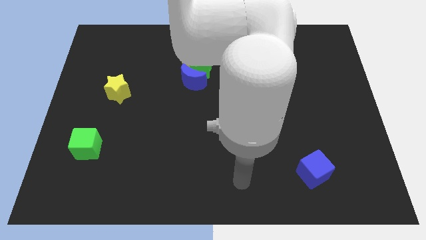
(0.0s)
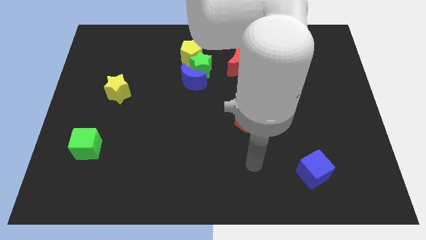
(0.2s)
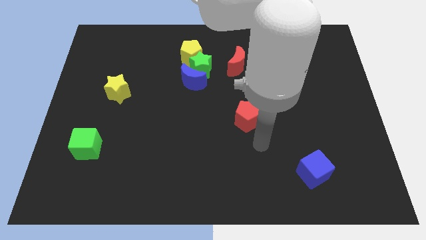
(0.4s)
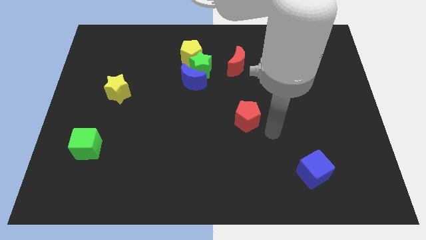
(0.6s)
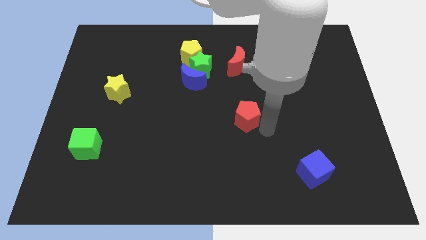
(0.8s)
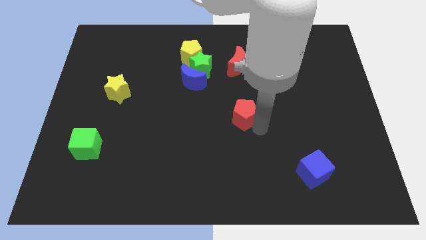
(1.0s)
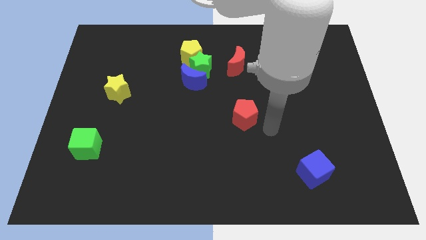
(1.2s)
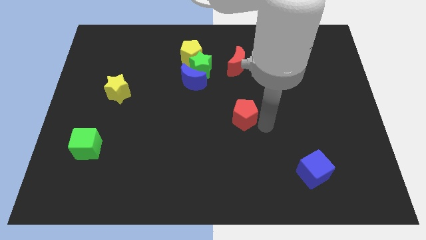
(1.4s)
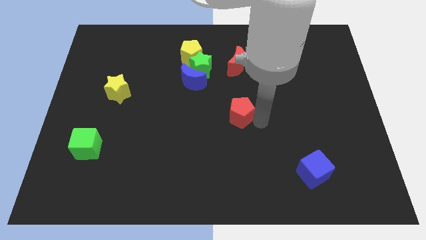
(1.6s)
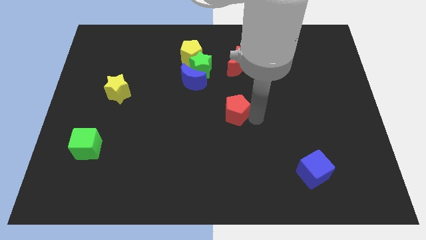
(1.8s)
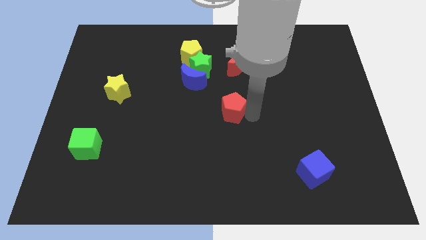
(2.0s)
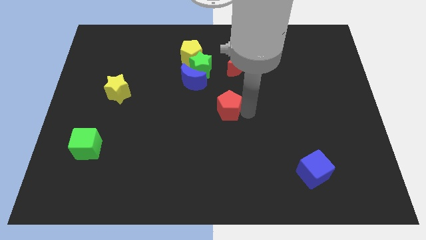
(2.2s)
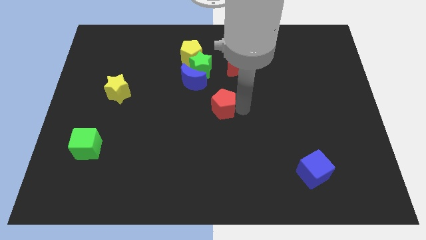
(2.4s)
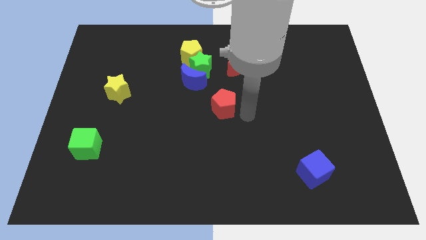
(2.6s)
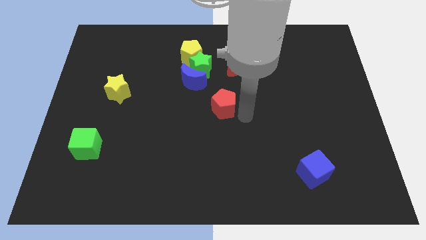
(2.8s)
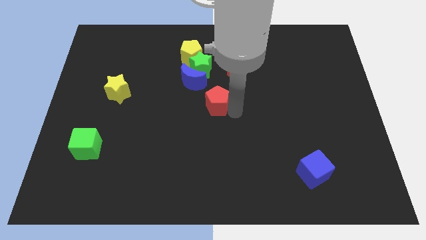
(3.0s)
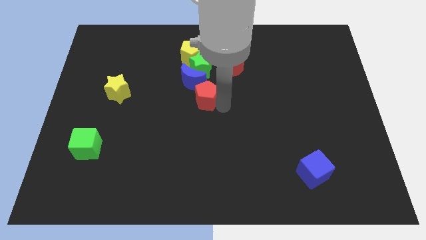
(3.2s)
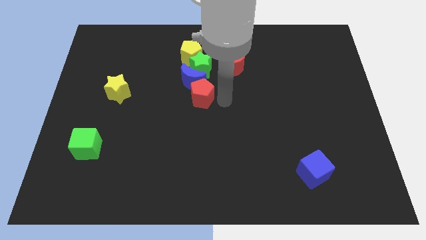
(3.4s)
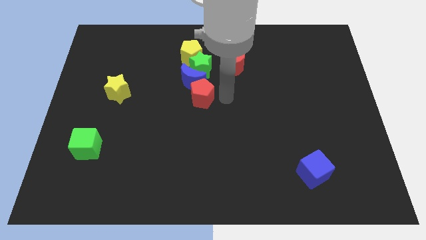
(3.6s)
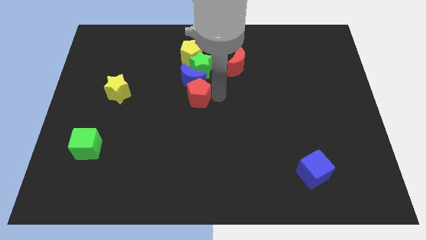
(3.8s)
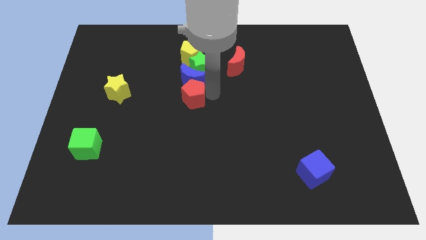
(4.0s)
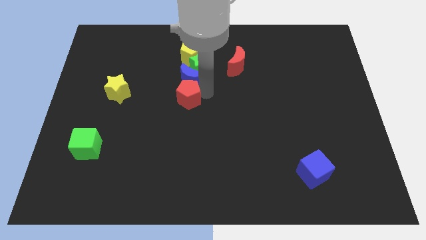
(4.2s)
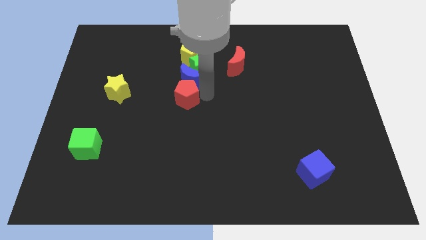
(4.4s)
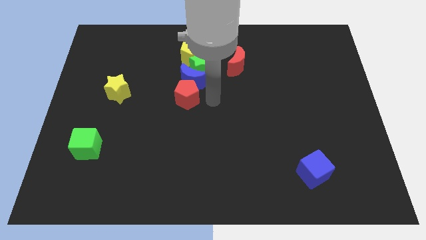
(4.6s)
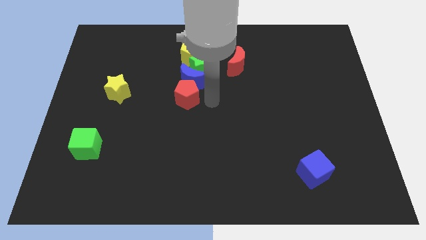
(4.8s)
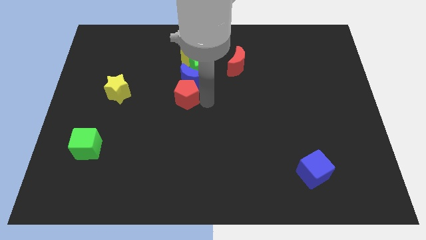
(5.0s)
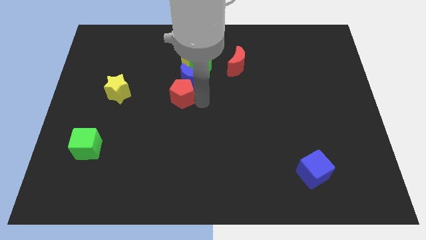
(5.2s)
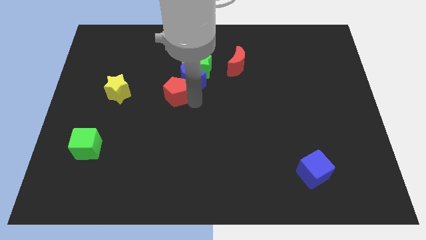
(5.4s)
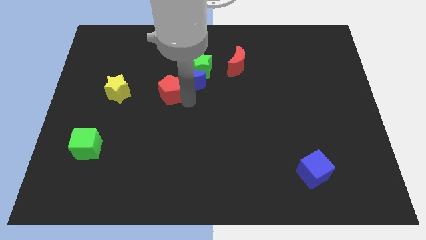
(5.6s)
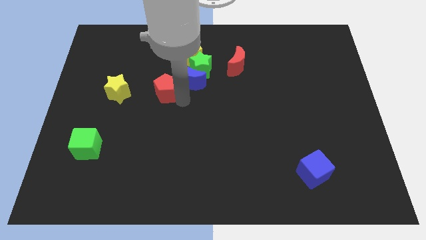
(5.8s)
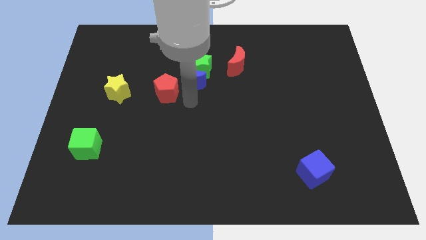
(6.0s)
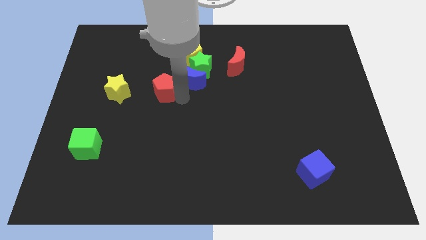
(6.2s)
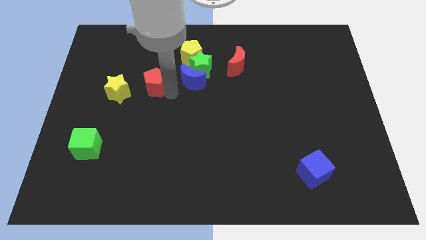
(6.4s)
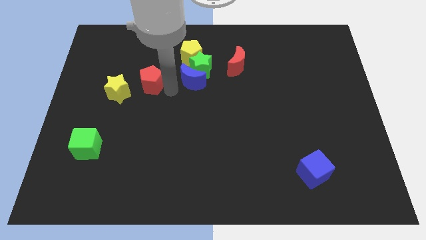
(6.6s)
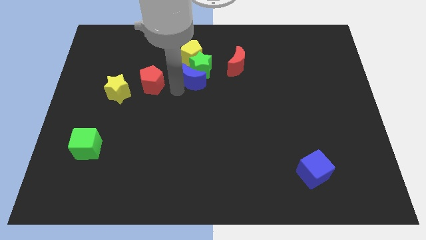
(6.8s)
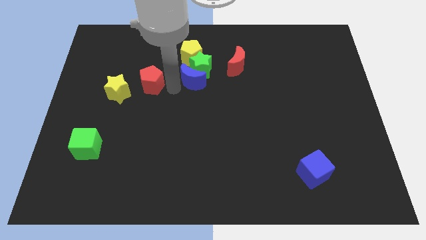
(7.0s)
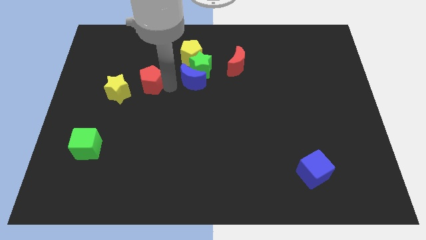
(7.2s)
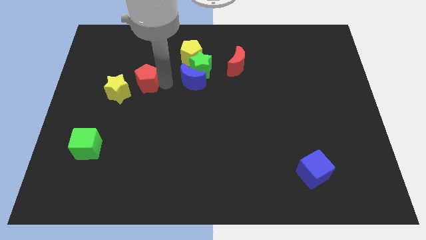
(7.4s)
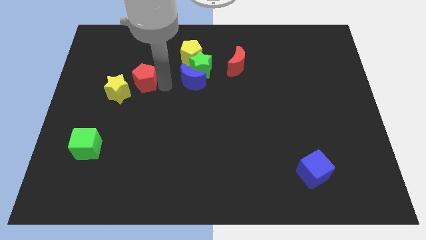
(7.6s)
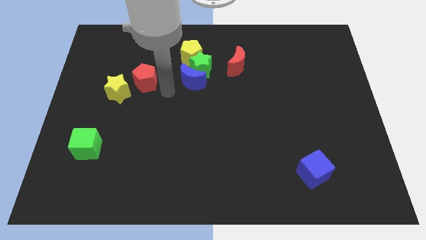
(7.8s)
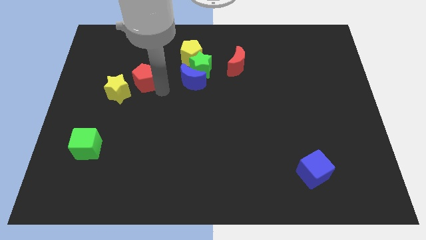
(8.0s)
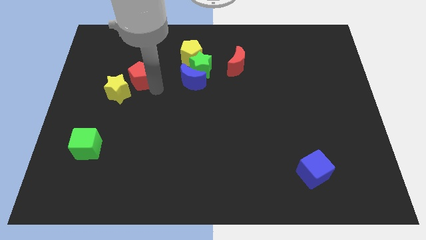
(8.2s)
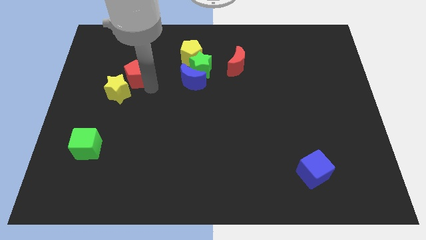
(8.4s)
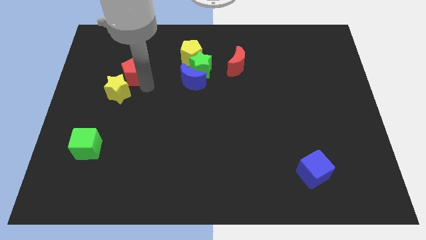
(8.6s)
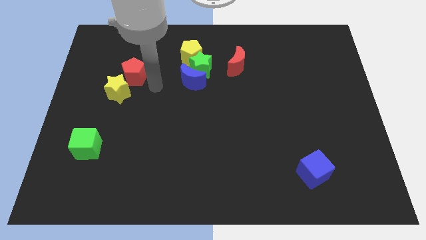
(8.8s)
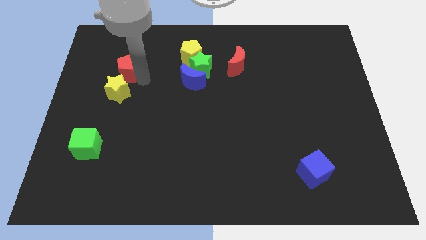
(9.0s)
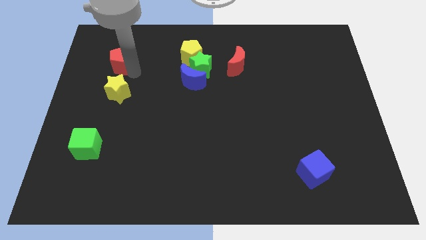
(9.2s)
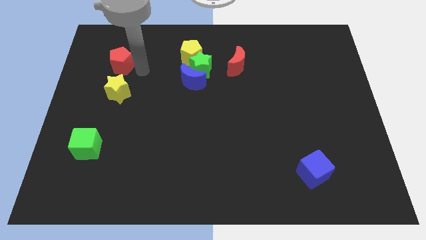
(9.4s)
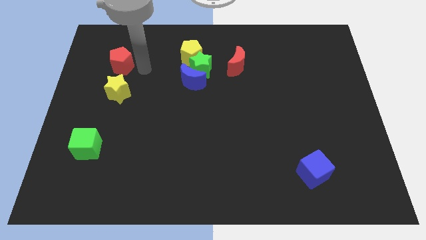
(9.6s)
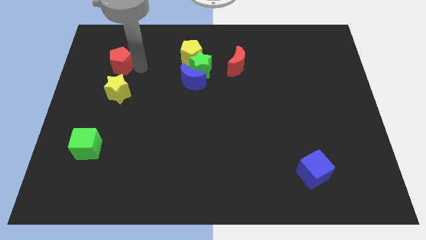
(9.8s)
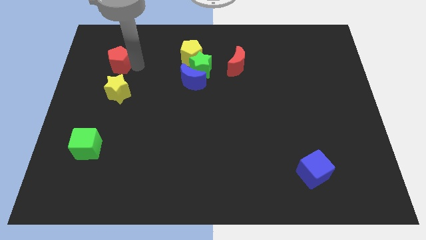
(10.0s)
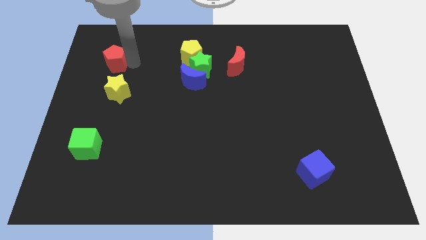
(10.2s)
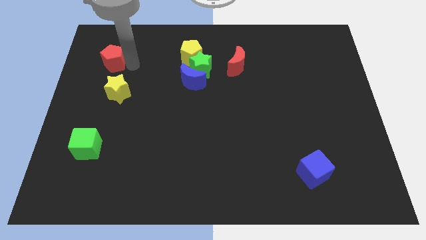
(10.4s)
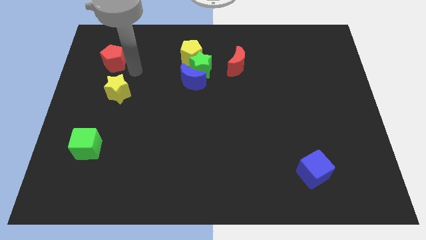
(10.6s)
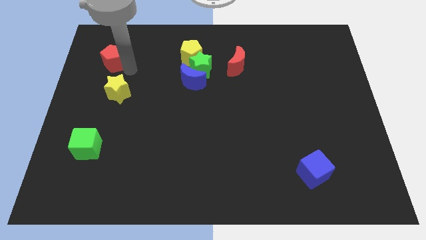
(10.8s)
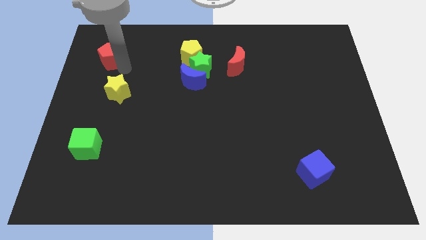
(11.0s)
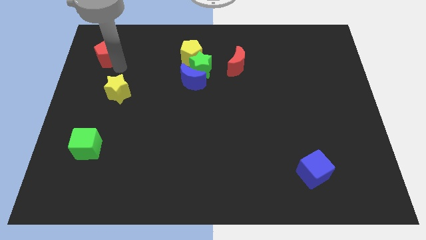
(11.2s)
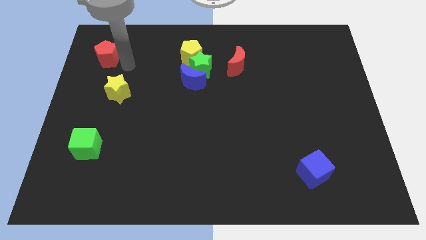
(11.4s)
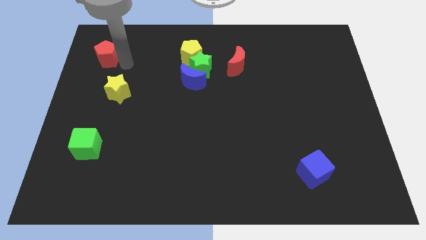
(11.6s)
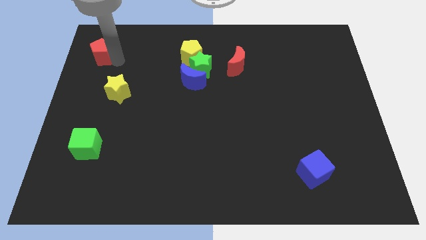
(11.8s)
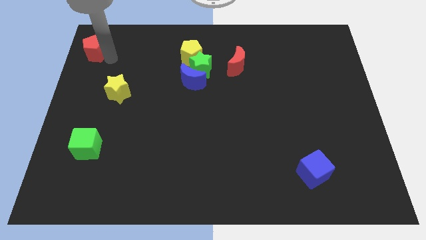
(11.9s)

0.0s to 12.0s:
put the red pentagon to the top left corner

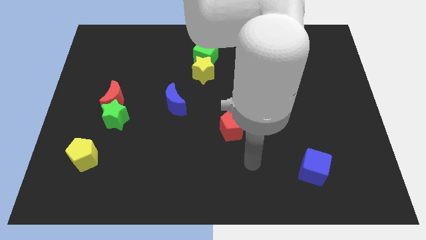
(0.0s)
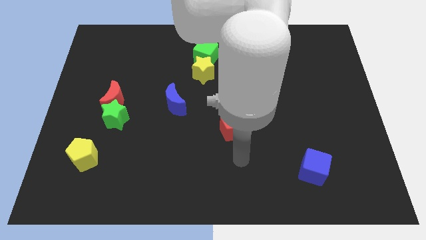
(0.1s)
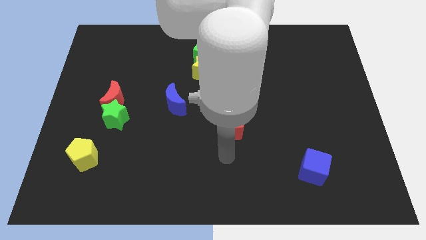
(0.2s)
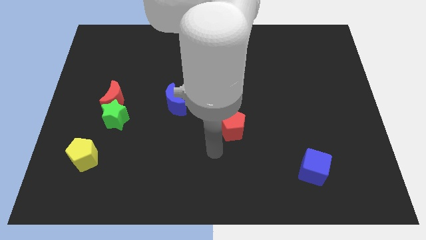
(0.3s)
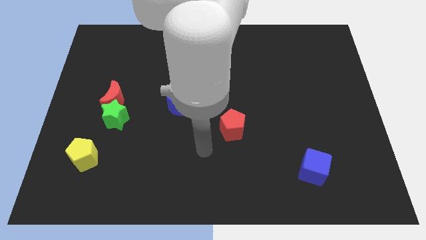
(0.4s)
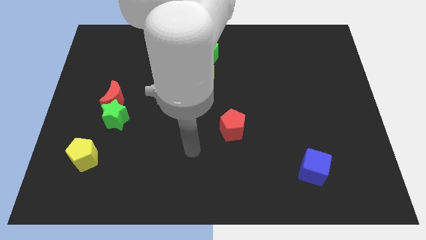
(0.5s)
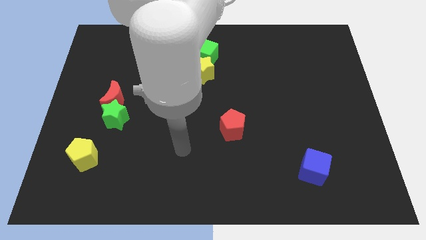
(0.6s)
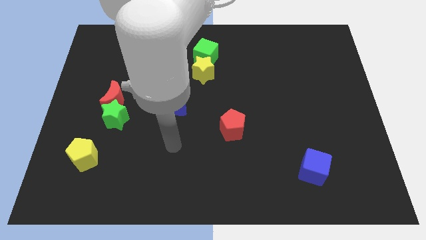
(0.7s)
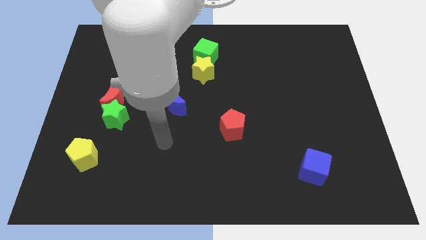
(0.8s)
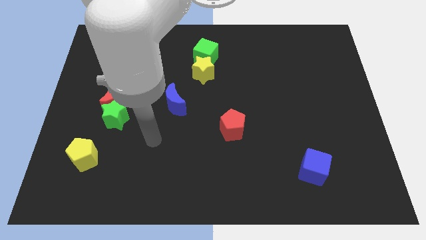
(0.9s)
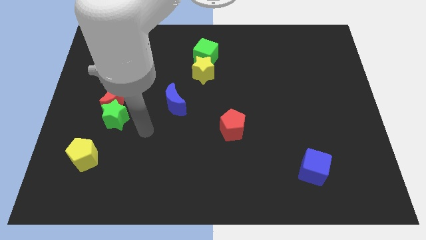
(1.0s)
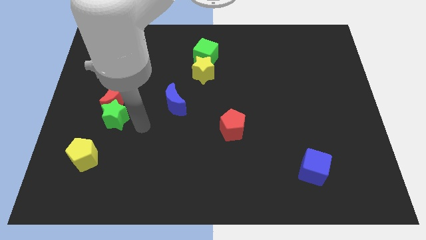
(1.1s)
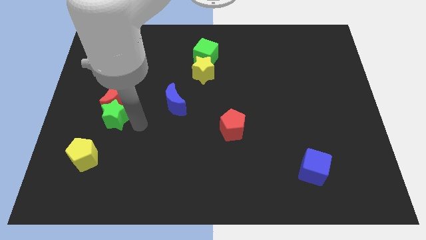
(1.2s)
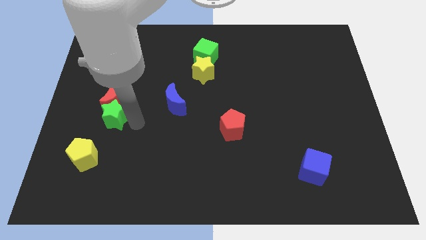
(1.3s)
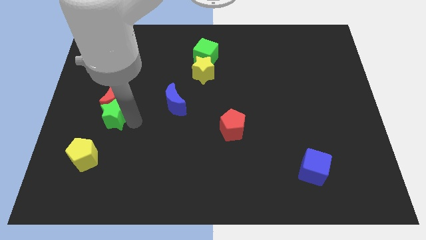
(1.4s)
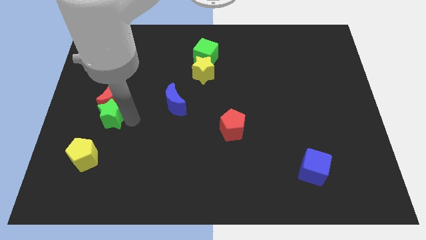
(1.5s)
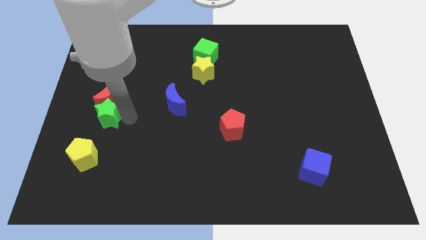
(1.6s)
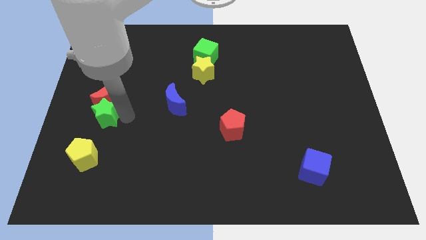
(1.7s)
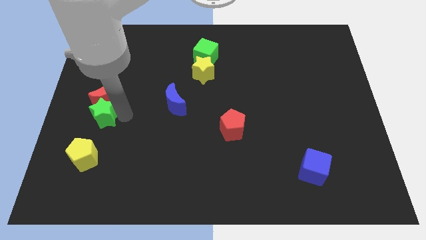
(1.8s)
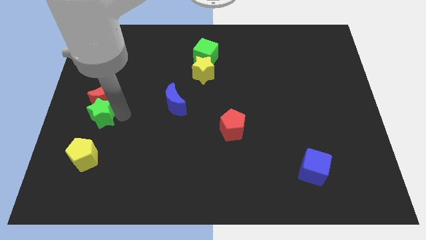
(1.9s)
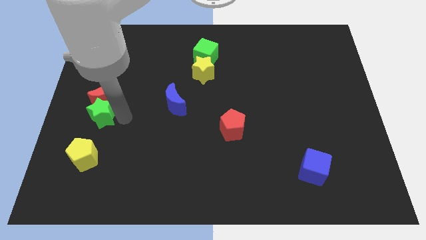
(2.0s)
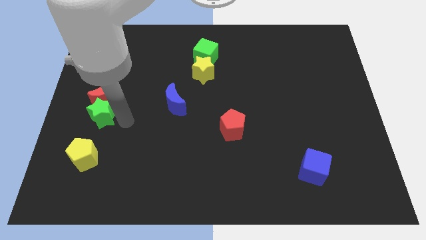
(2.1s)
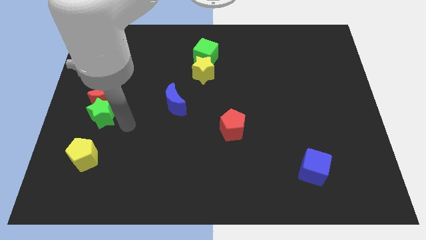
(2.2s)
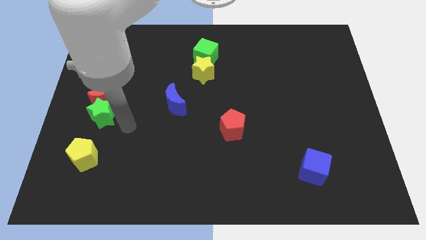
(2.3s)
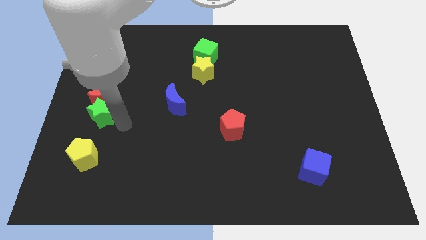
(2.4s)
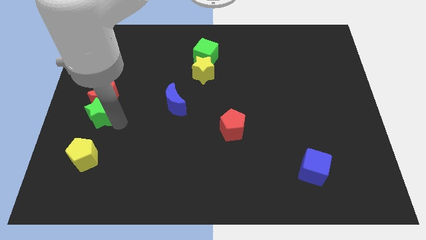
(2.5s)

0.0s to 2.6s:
push the green star to the center left
